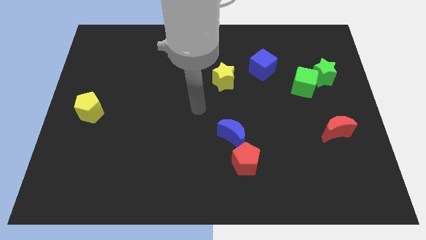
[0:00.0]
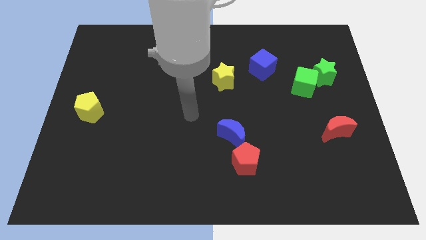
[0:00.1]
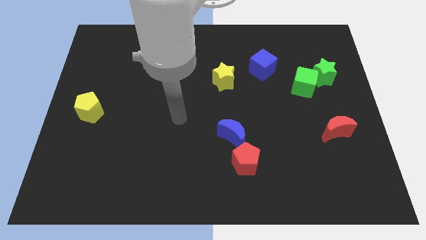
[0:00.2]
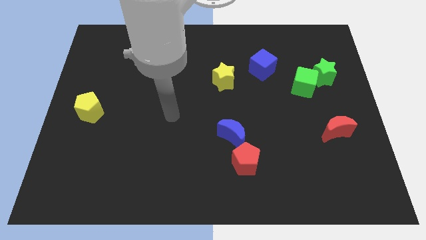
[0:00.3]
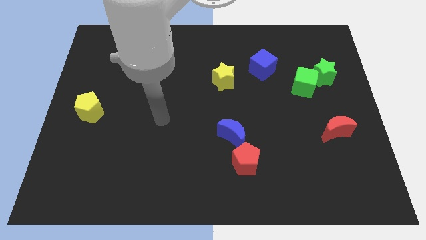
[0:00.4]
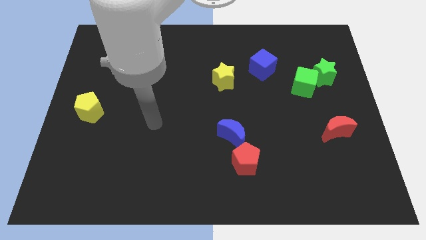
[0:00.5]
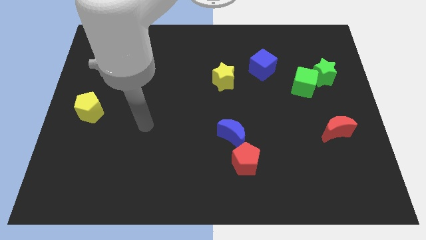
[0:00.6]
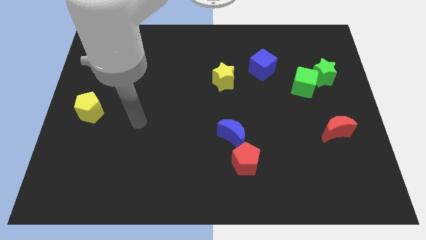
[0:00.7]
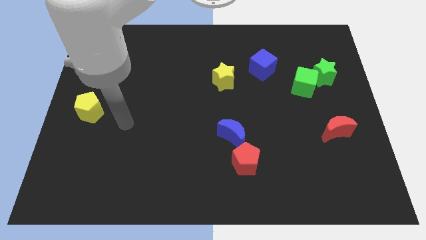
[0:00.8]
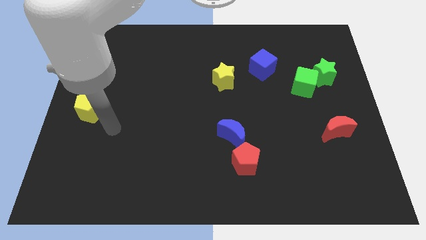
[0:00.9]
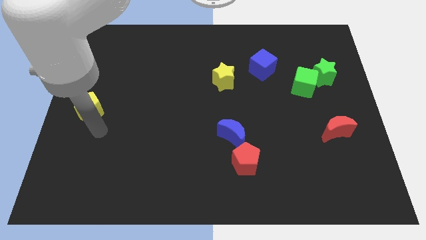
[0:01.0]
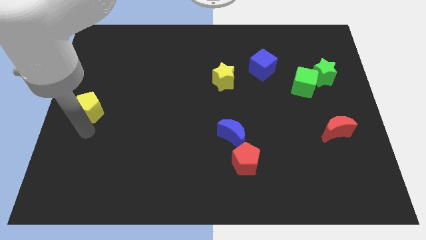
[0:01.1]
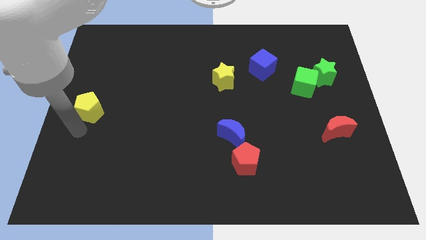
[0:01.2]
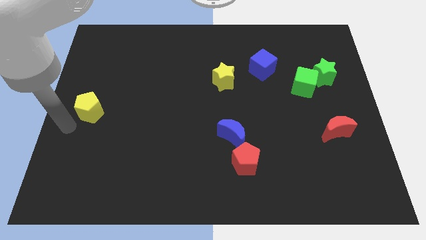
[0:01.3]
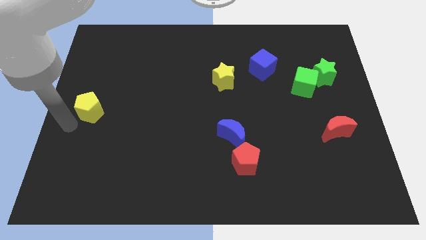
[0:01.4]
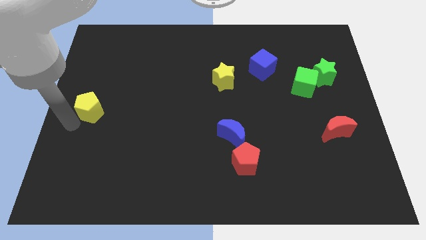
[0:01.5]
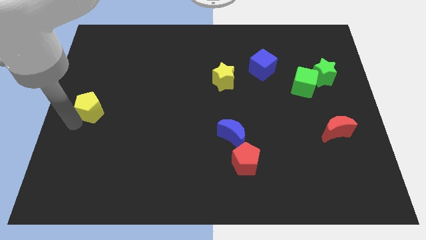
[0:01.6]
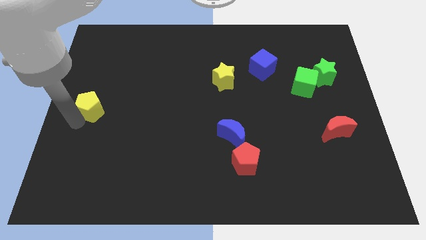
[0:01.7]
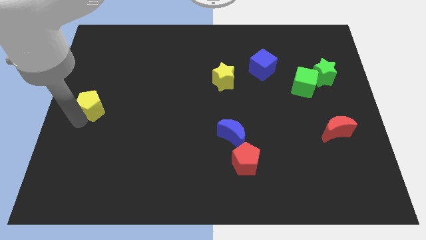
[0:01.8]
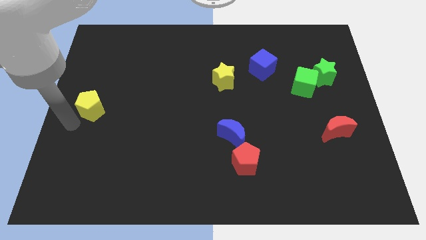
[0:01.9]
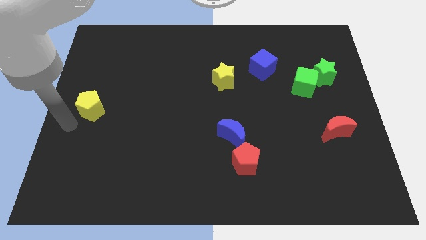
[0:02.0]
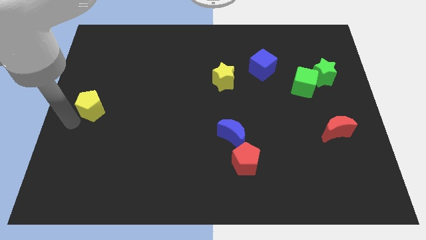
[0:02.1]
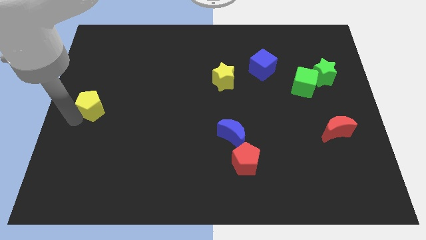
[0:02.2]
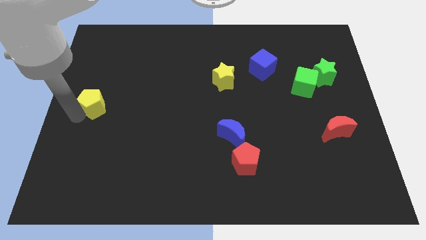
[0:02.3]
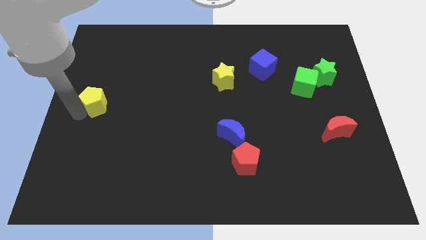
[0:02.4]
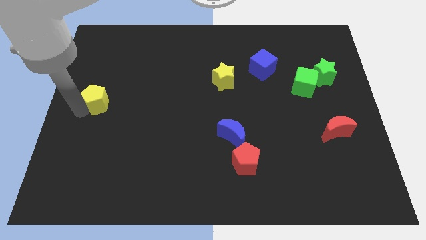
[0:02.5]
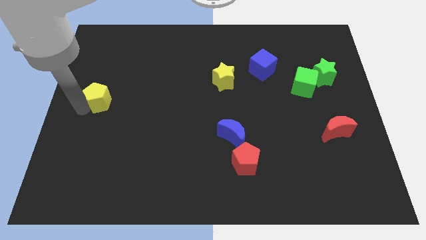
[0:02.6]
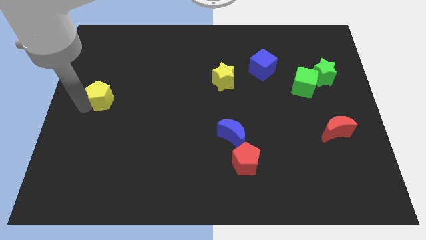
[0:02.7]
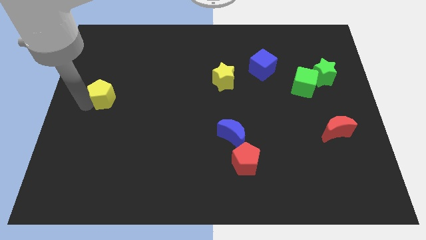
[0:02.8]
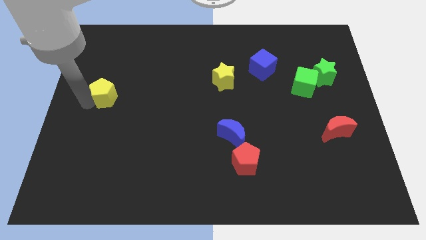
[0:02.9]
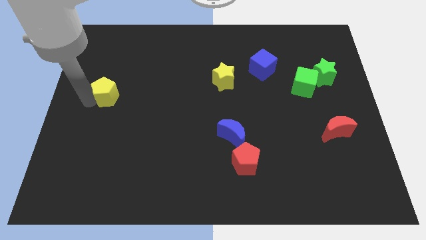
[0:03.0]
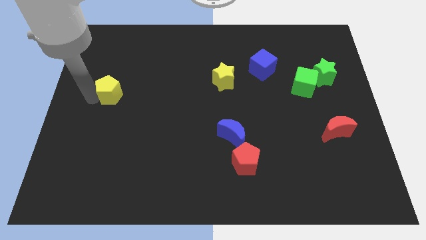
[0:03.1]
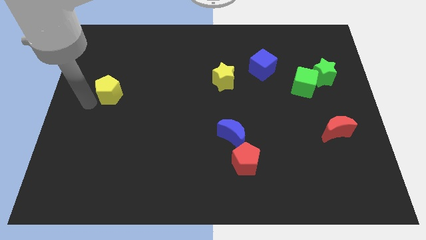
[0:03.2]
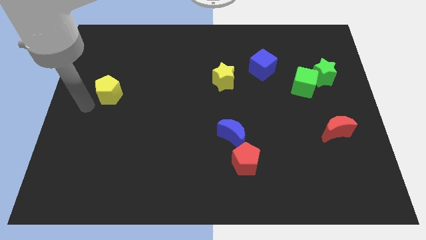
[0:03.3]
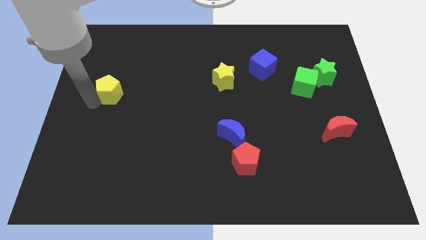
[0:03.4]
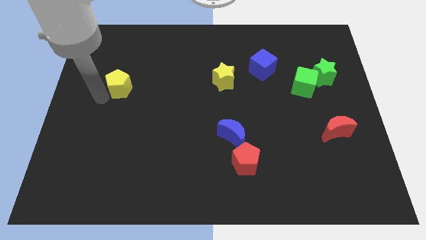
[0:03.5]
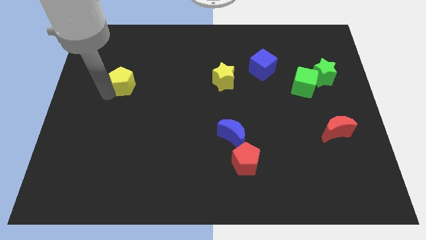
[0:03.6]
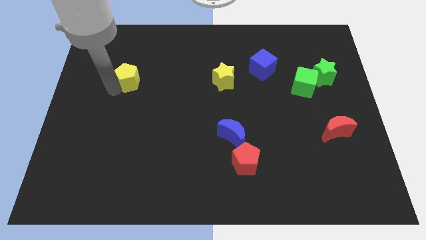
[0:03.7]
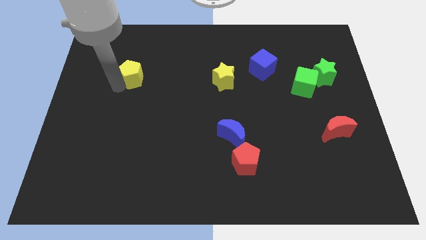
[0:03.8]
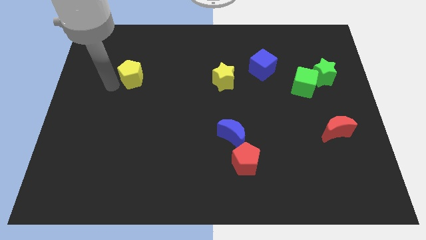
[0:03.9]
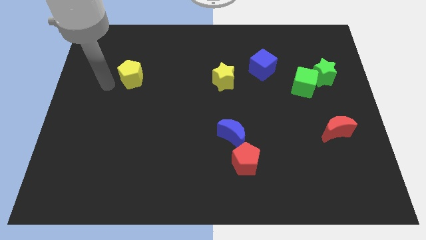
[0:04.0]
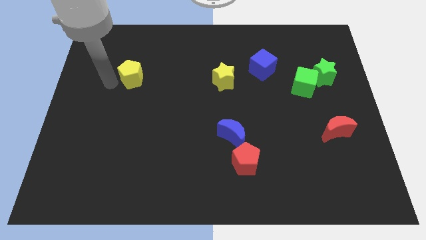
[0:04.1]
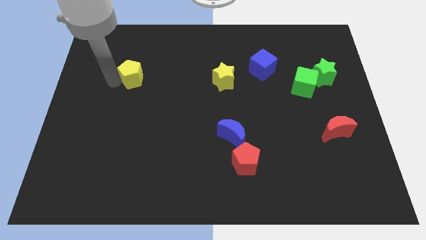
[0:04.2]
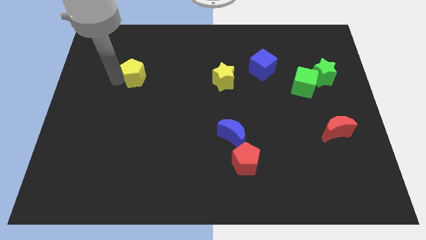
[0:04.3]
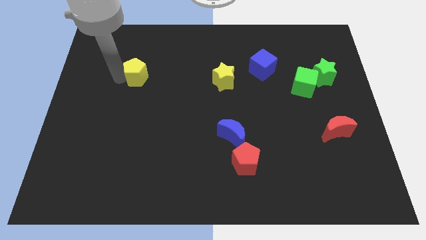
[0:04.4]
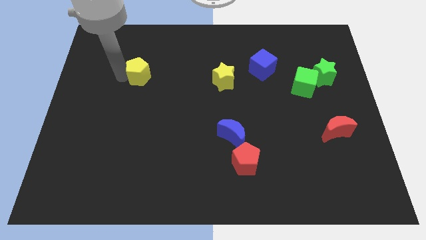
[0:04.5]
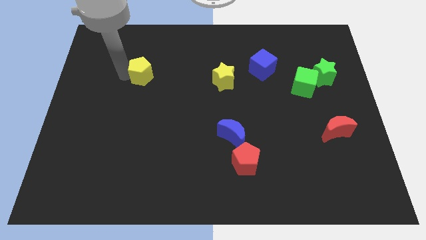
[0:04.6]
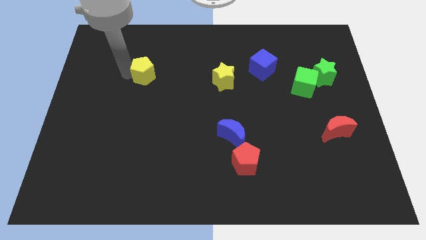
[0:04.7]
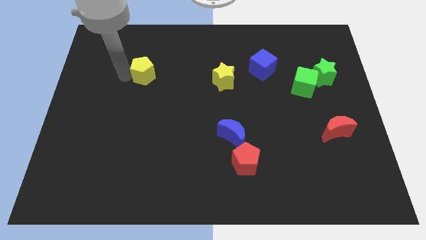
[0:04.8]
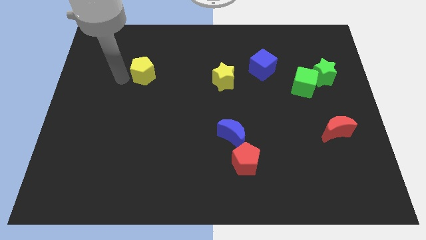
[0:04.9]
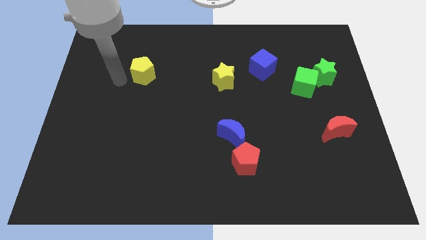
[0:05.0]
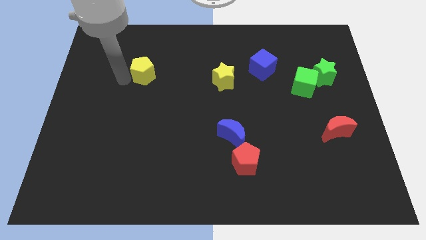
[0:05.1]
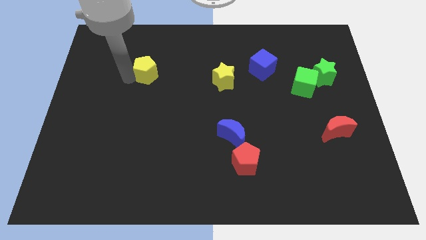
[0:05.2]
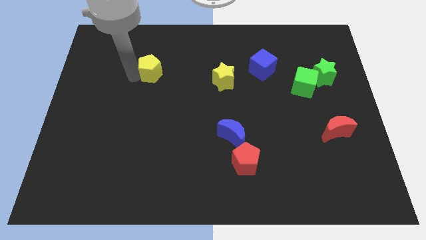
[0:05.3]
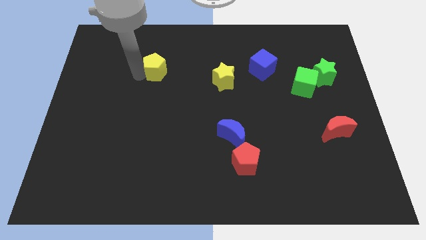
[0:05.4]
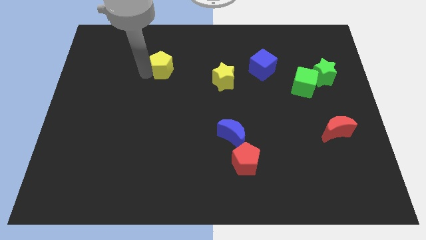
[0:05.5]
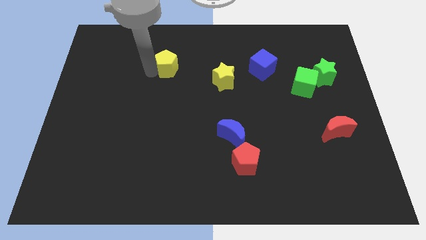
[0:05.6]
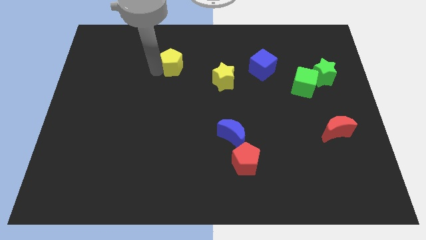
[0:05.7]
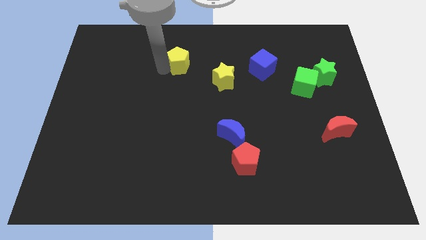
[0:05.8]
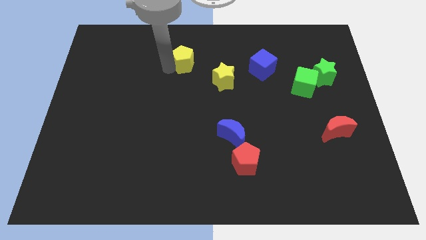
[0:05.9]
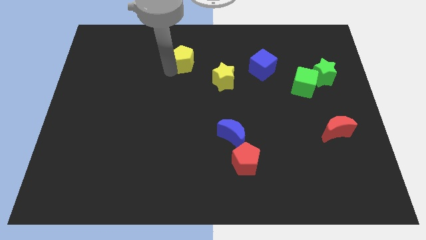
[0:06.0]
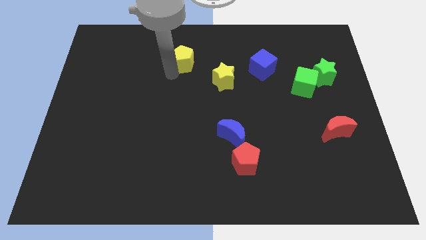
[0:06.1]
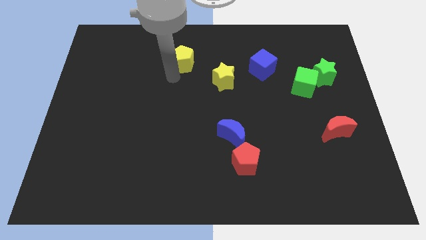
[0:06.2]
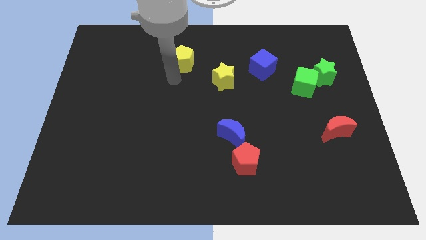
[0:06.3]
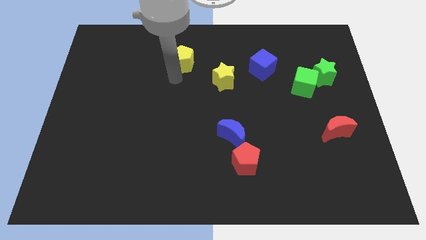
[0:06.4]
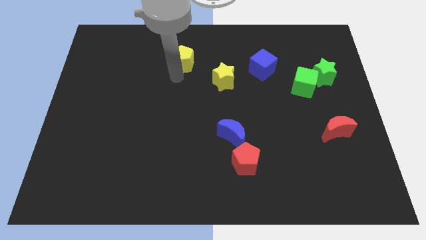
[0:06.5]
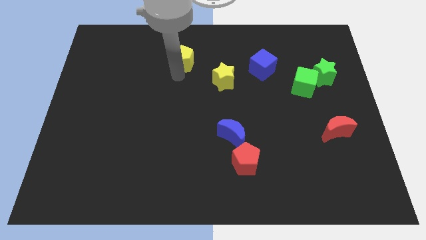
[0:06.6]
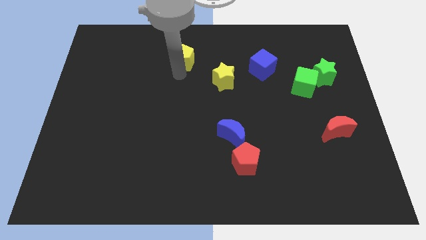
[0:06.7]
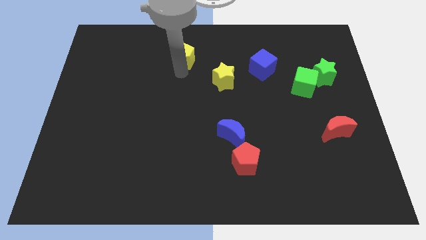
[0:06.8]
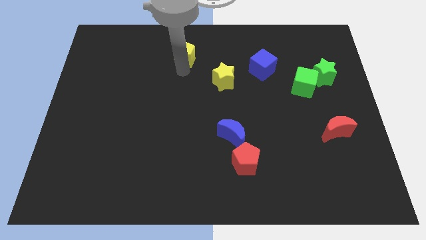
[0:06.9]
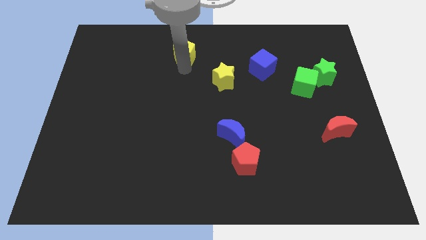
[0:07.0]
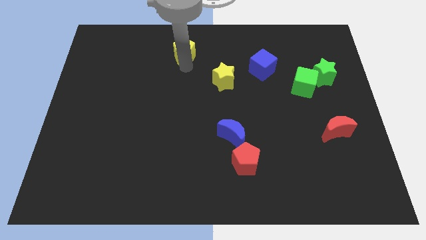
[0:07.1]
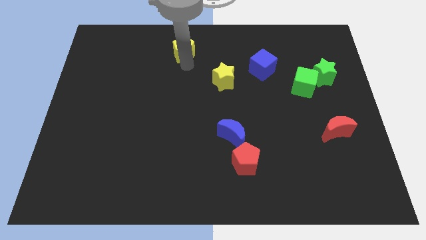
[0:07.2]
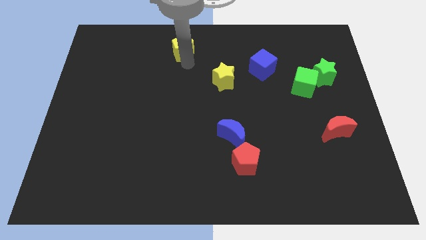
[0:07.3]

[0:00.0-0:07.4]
slide the yellow pentagon to the towards your base

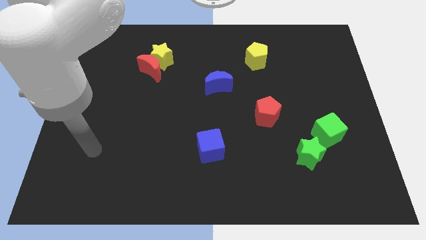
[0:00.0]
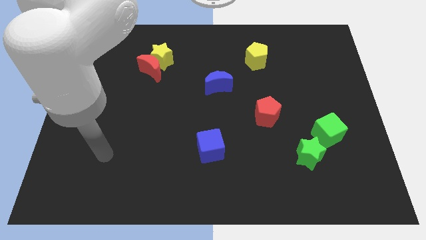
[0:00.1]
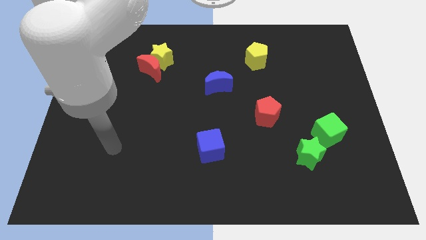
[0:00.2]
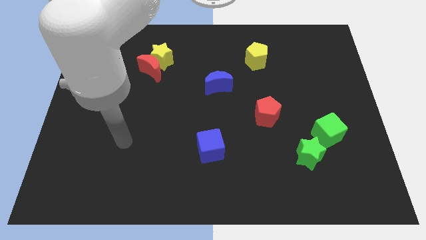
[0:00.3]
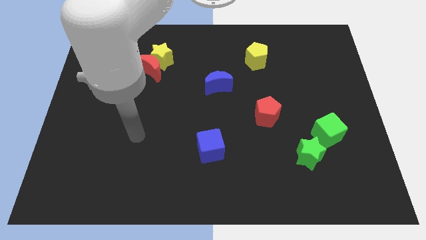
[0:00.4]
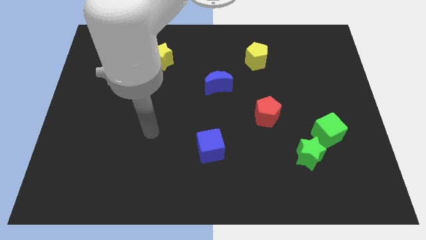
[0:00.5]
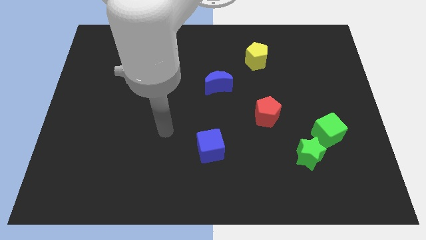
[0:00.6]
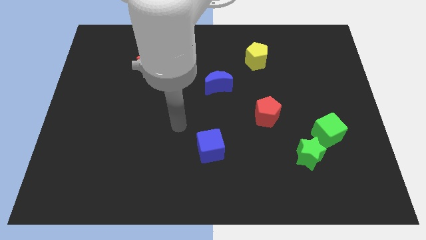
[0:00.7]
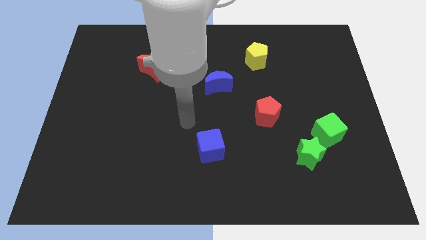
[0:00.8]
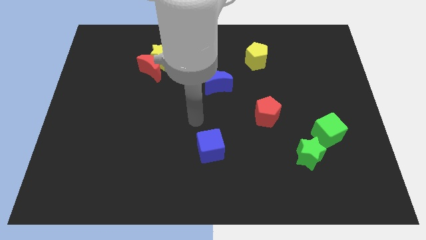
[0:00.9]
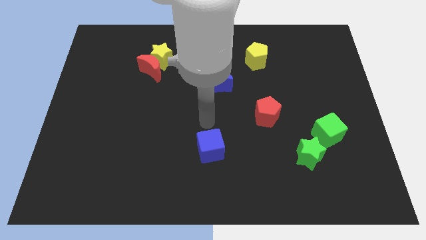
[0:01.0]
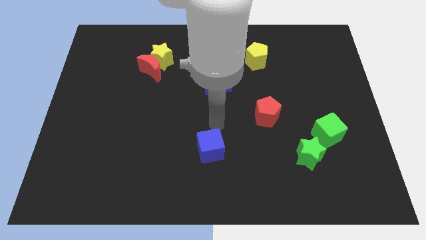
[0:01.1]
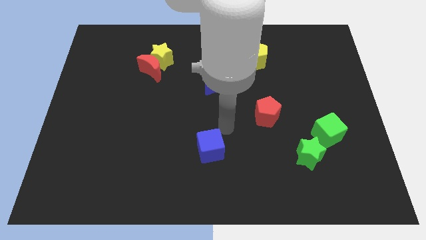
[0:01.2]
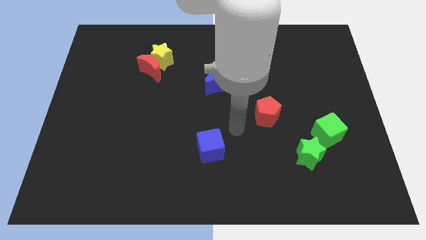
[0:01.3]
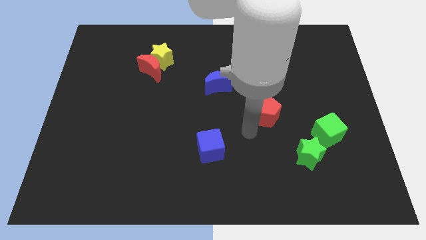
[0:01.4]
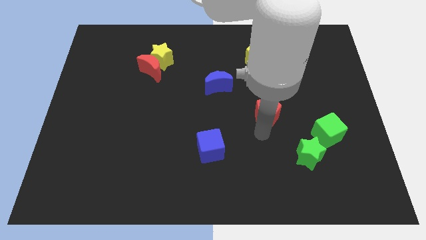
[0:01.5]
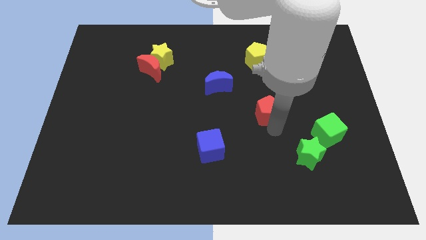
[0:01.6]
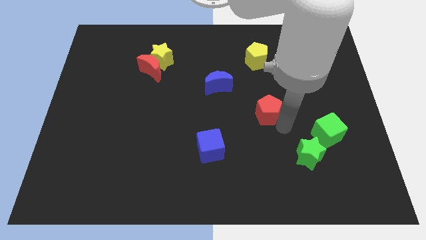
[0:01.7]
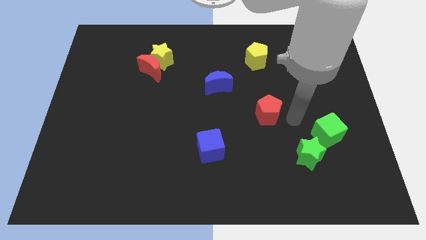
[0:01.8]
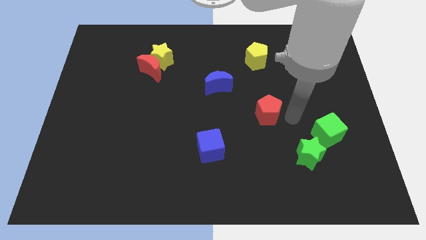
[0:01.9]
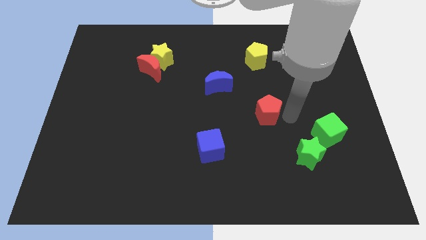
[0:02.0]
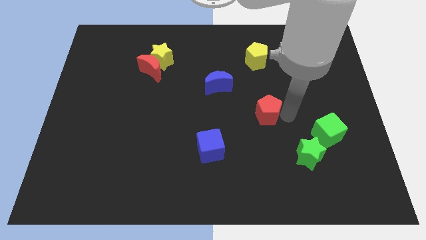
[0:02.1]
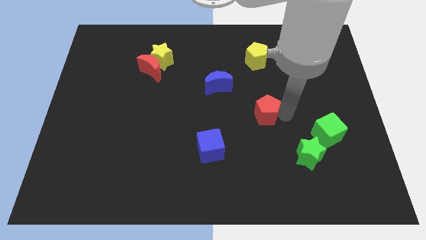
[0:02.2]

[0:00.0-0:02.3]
put the red pentagon to the middle of the board
